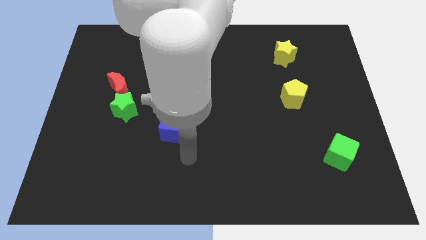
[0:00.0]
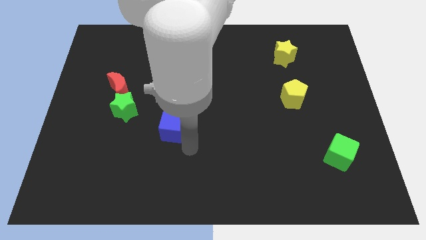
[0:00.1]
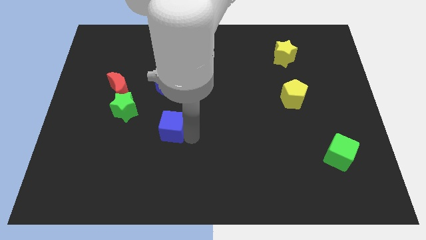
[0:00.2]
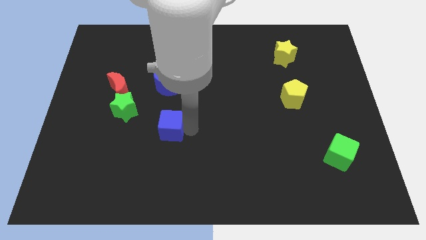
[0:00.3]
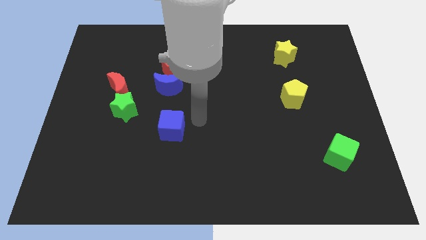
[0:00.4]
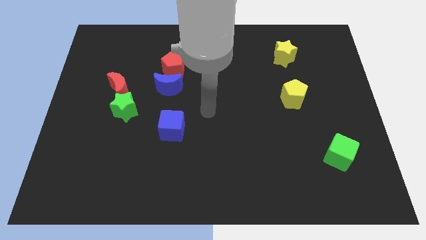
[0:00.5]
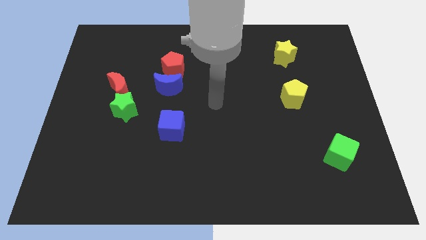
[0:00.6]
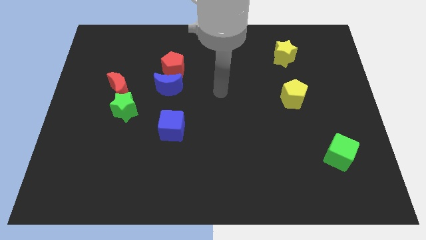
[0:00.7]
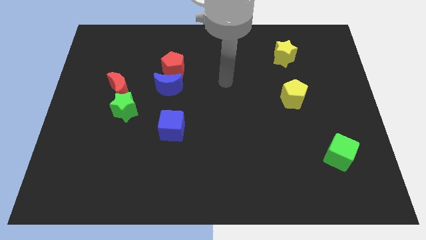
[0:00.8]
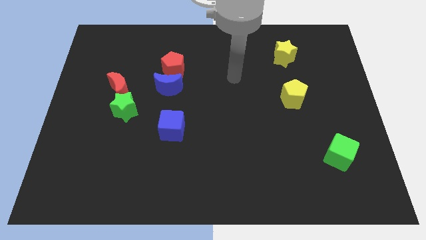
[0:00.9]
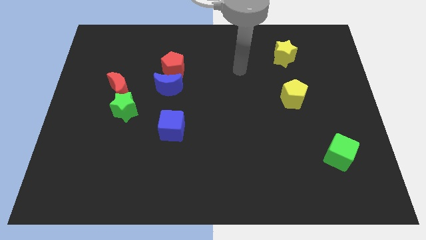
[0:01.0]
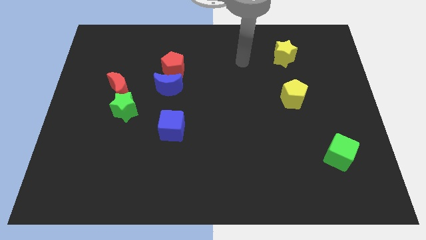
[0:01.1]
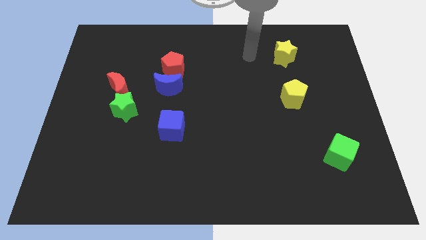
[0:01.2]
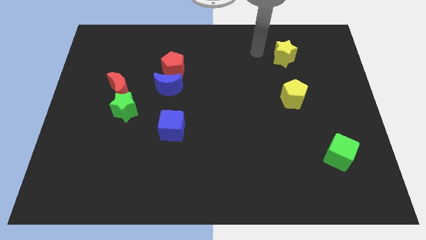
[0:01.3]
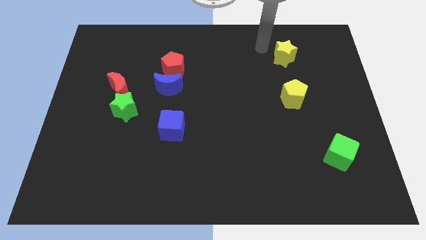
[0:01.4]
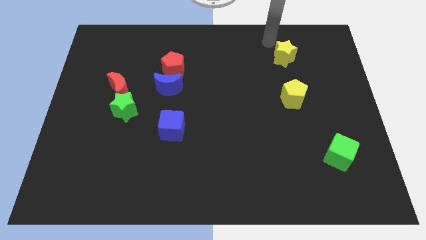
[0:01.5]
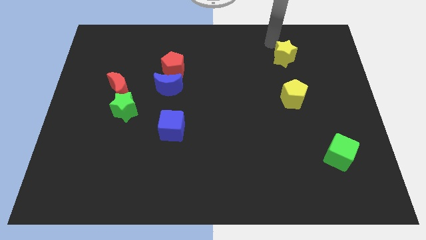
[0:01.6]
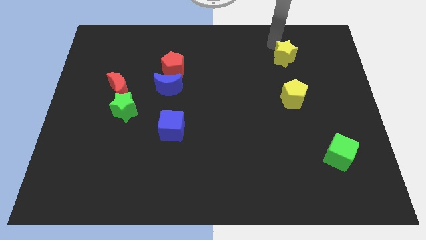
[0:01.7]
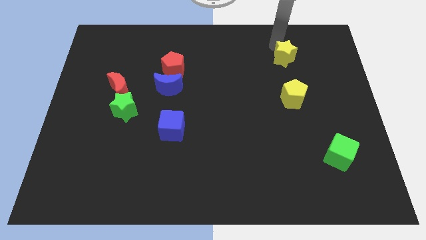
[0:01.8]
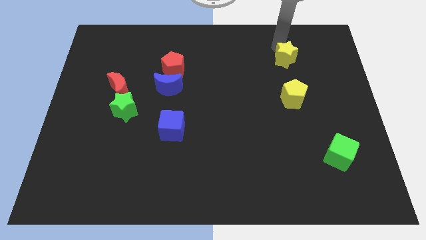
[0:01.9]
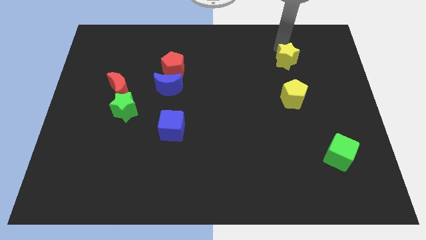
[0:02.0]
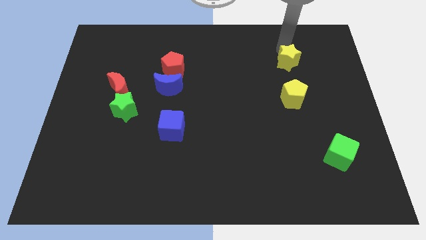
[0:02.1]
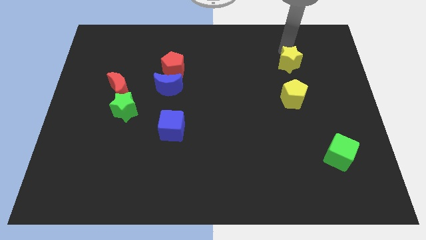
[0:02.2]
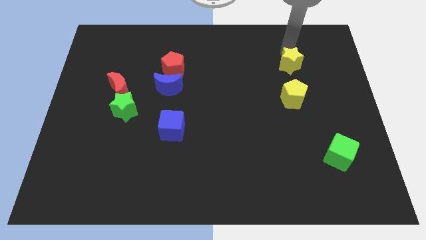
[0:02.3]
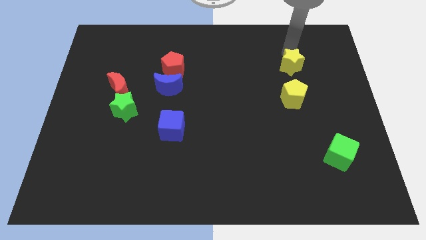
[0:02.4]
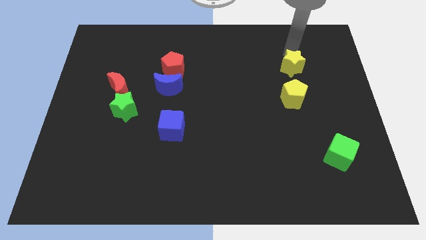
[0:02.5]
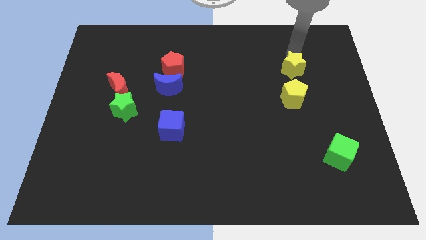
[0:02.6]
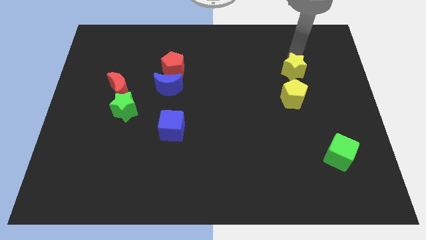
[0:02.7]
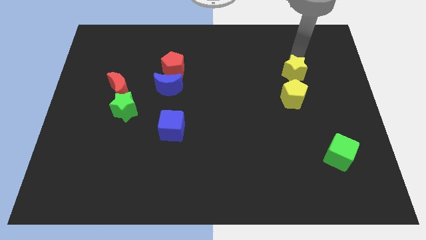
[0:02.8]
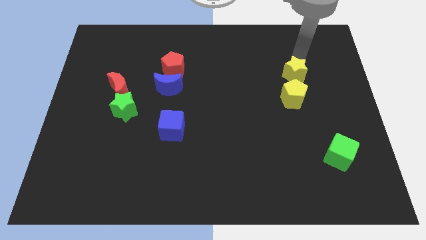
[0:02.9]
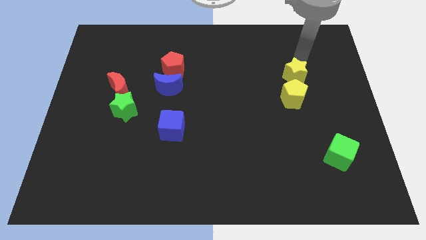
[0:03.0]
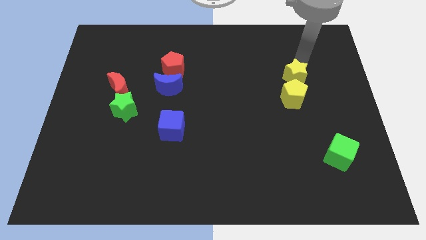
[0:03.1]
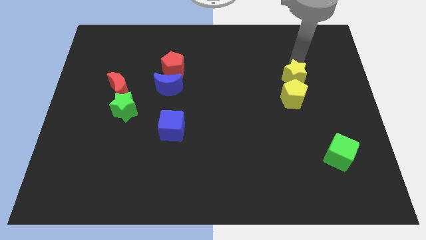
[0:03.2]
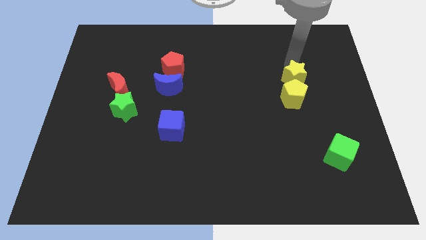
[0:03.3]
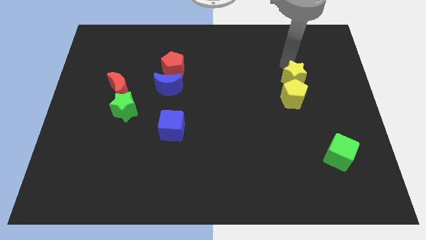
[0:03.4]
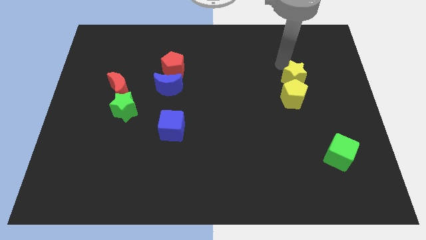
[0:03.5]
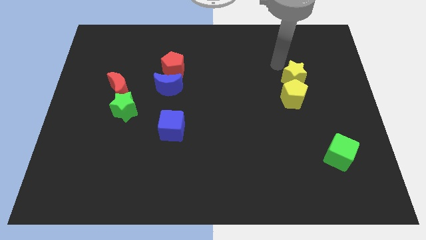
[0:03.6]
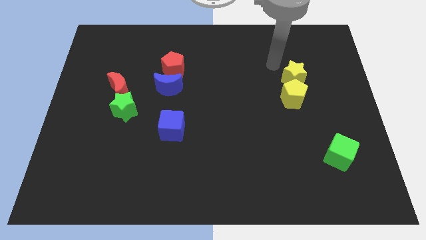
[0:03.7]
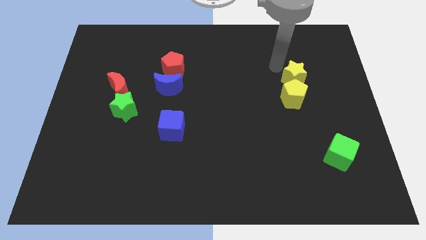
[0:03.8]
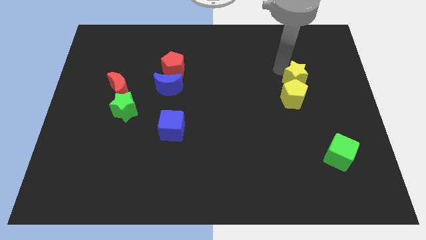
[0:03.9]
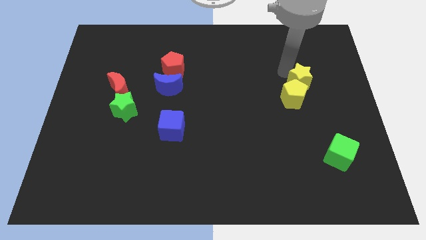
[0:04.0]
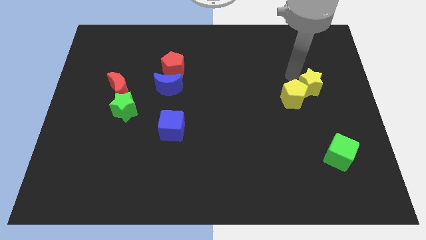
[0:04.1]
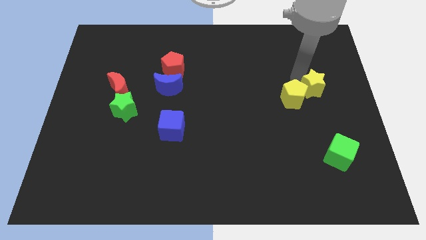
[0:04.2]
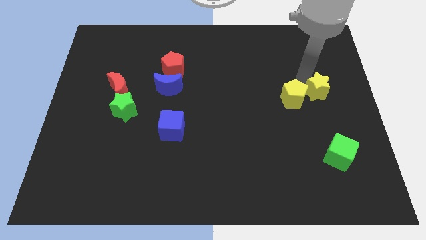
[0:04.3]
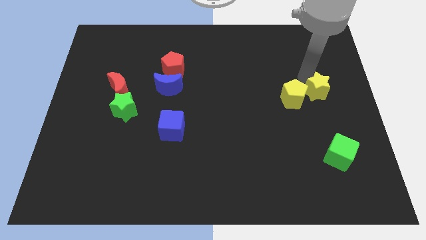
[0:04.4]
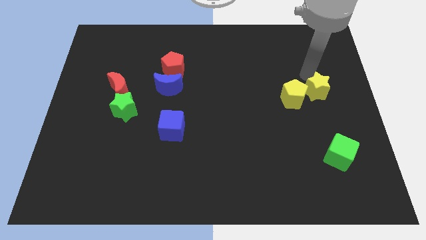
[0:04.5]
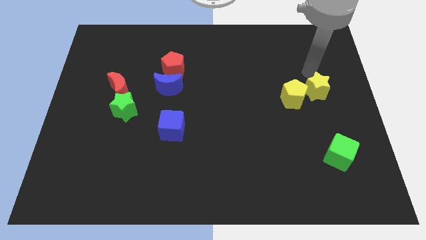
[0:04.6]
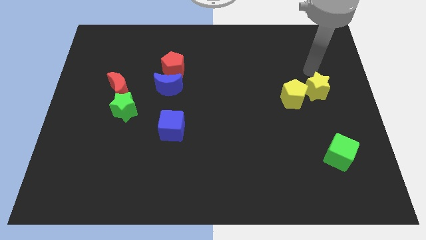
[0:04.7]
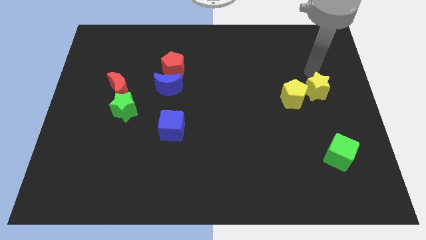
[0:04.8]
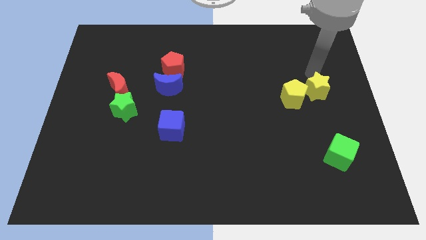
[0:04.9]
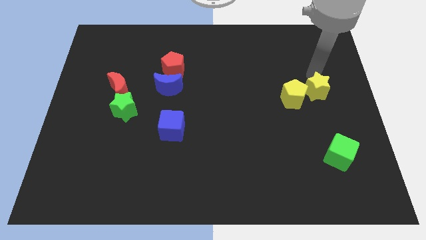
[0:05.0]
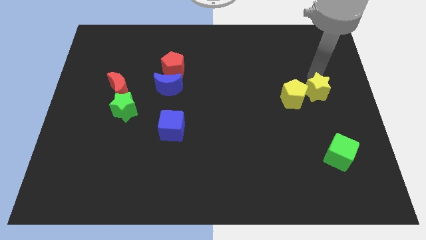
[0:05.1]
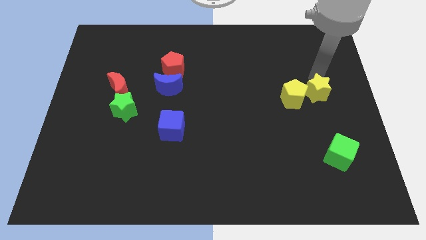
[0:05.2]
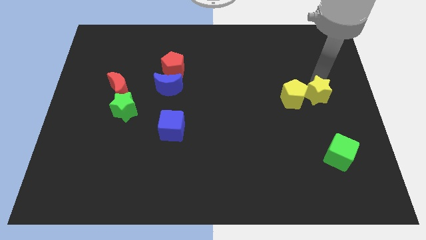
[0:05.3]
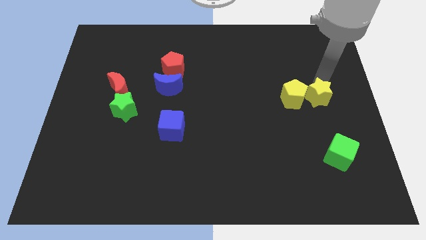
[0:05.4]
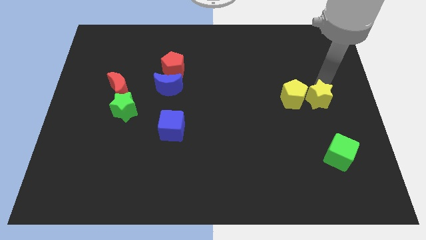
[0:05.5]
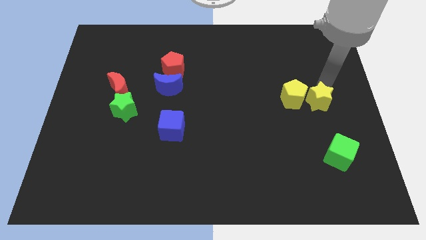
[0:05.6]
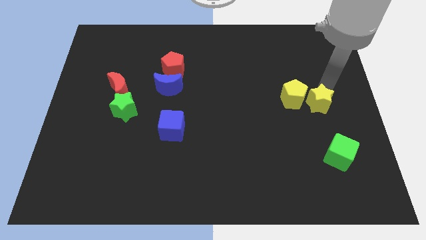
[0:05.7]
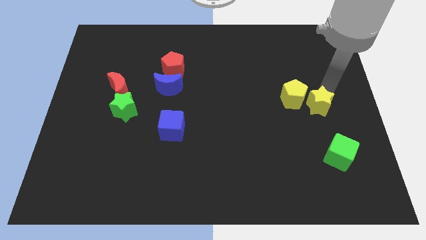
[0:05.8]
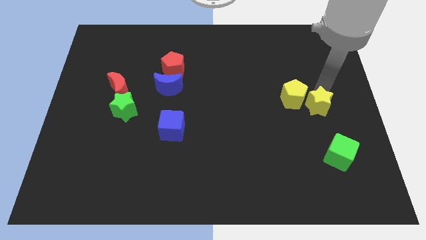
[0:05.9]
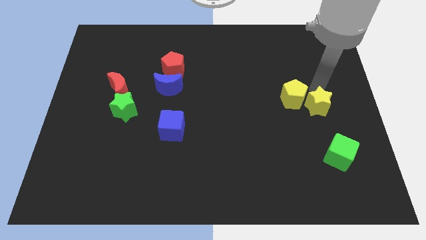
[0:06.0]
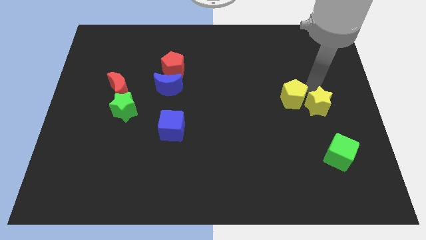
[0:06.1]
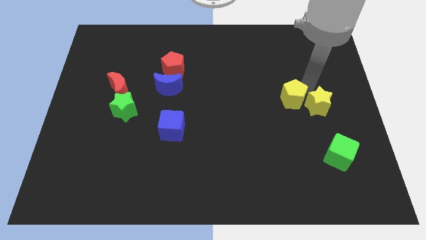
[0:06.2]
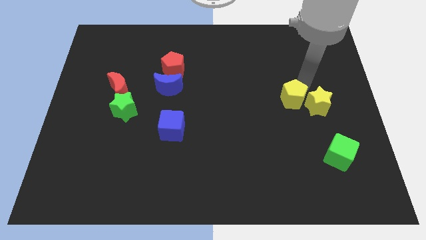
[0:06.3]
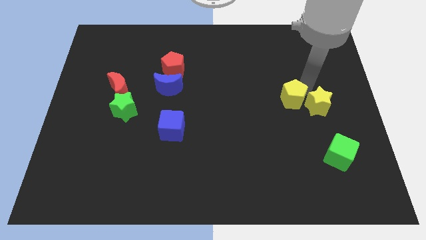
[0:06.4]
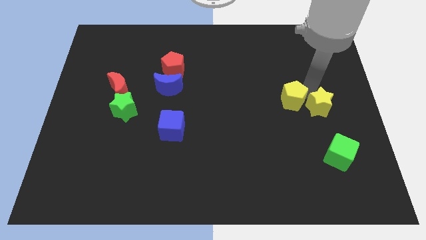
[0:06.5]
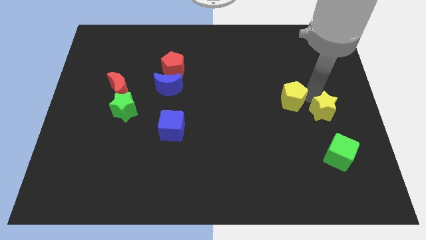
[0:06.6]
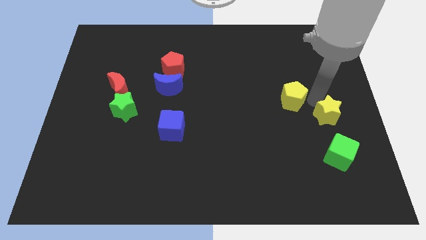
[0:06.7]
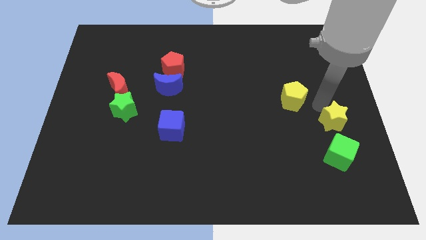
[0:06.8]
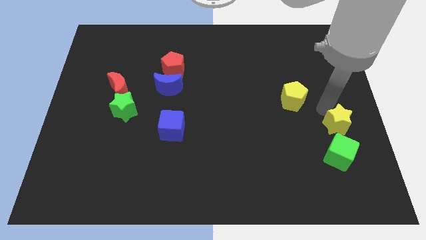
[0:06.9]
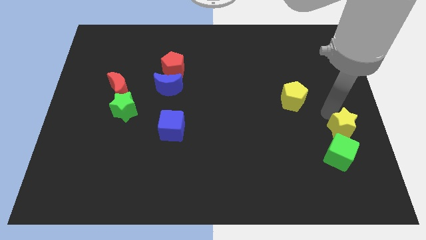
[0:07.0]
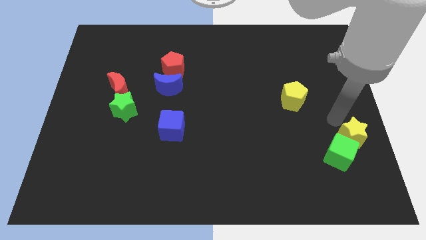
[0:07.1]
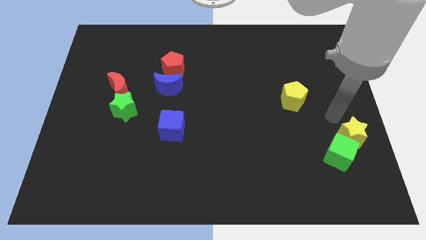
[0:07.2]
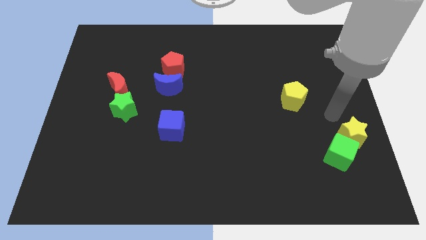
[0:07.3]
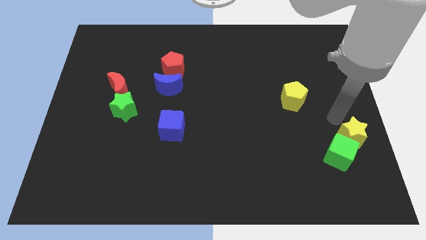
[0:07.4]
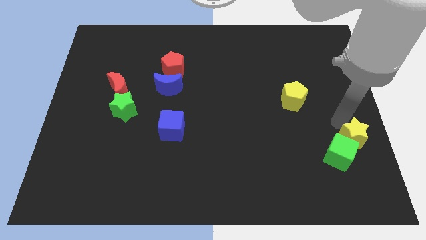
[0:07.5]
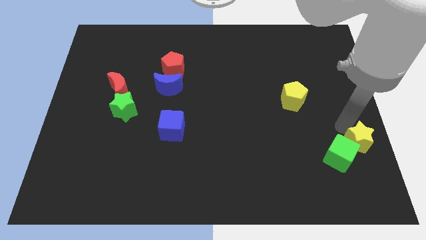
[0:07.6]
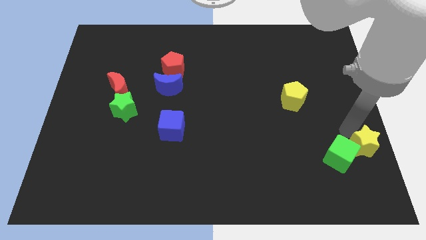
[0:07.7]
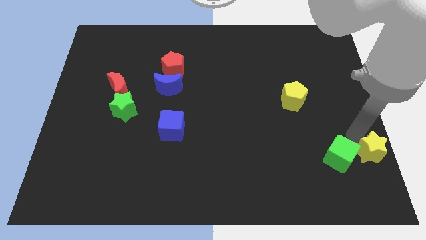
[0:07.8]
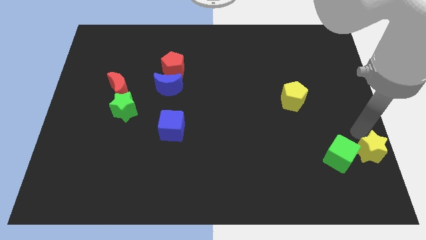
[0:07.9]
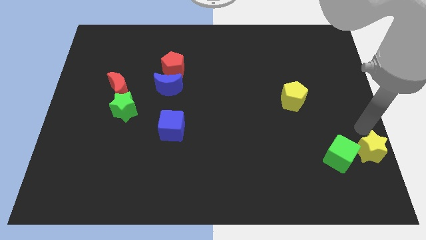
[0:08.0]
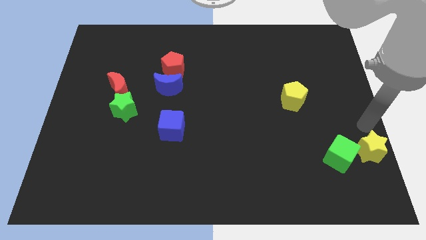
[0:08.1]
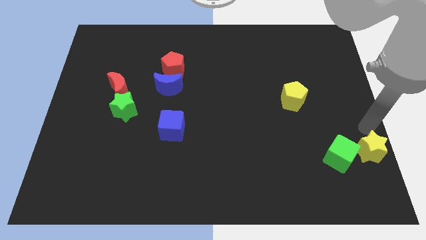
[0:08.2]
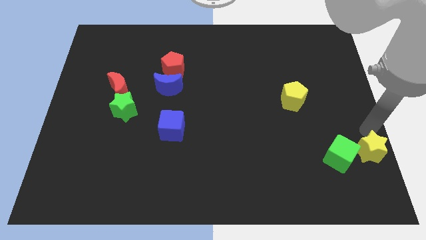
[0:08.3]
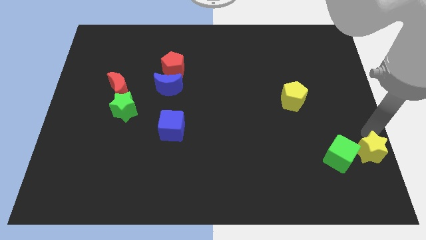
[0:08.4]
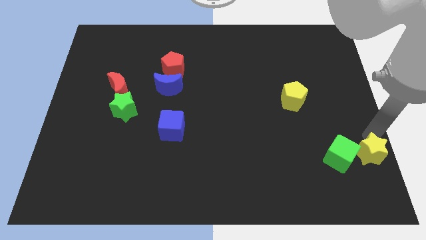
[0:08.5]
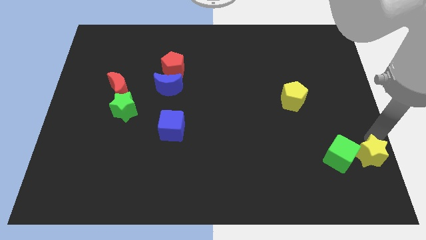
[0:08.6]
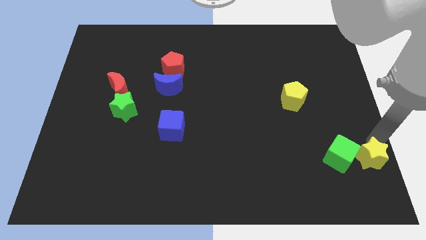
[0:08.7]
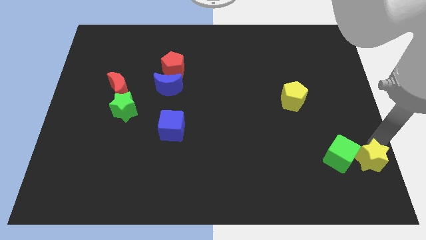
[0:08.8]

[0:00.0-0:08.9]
push the yellow star to the bottom right of the board
